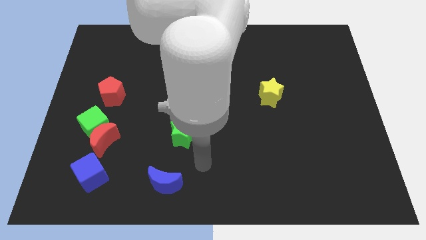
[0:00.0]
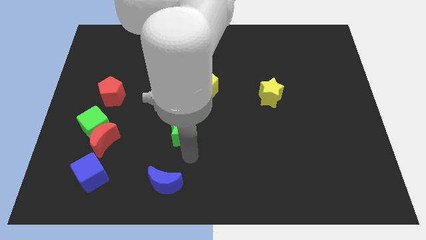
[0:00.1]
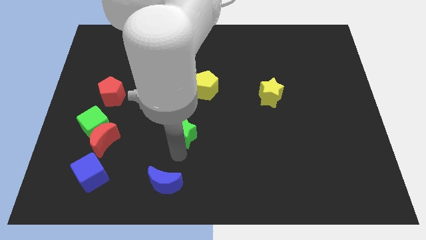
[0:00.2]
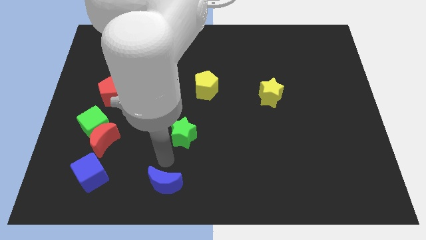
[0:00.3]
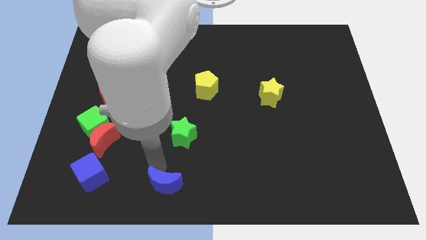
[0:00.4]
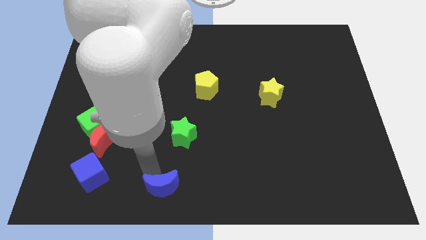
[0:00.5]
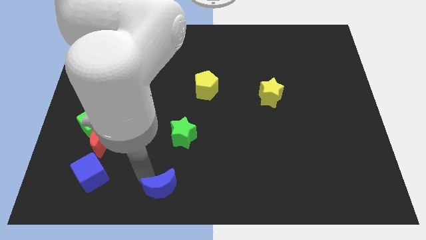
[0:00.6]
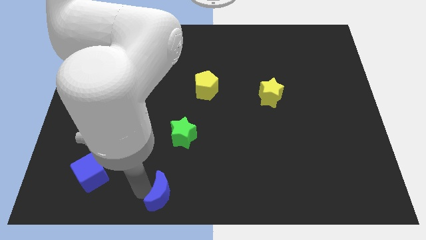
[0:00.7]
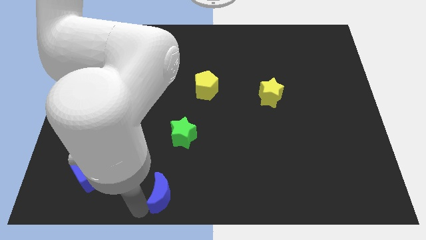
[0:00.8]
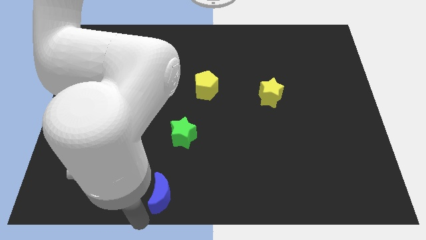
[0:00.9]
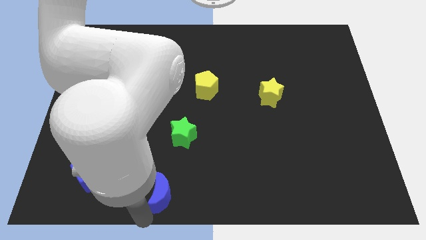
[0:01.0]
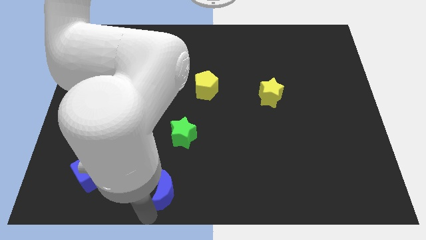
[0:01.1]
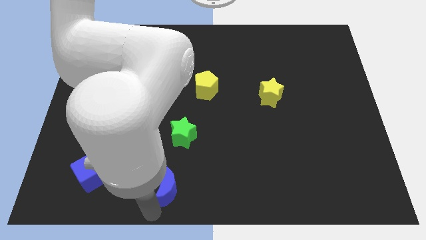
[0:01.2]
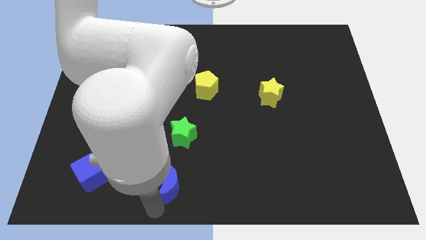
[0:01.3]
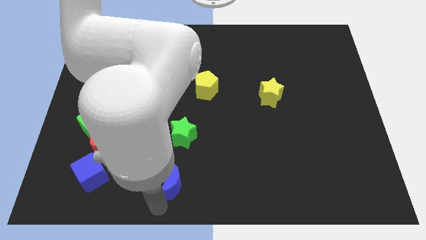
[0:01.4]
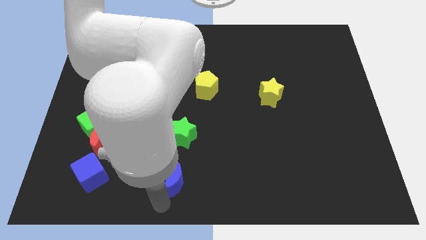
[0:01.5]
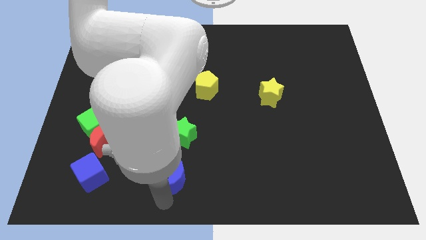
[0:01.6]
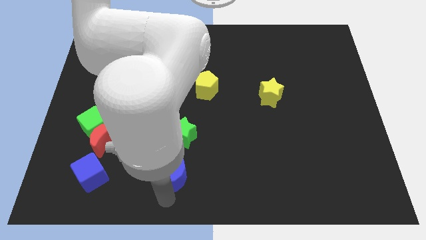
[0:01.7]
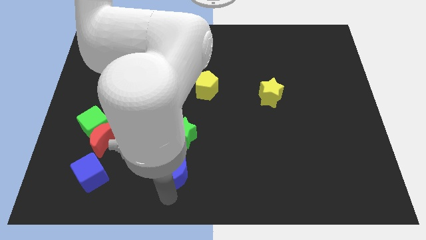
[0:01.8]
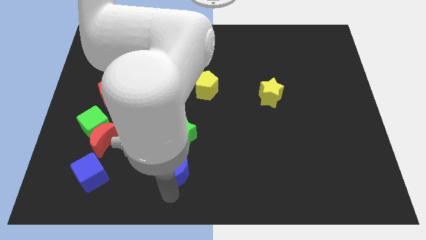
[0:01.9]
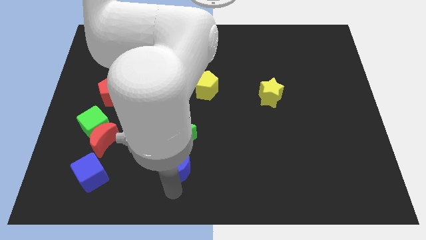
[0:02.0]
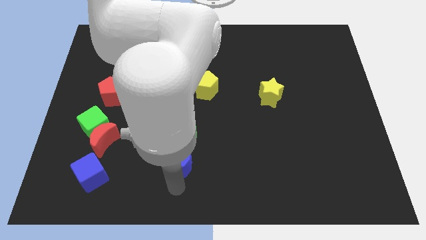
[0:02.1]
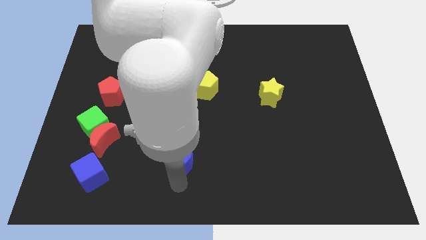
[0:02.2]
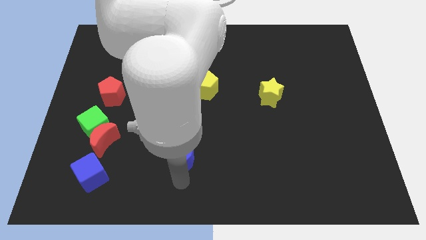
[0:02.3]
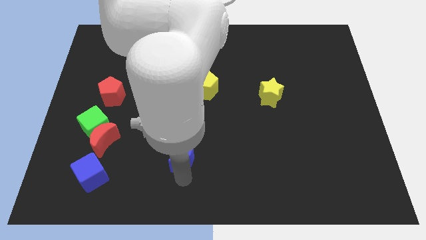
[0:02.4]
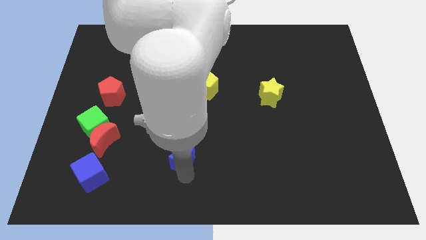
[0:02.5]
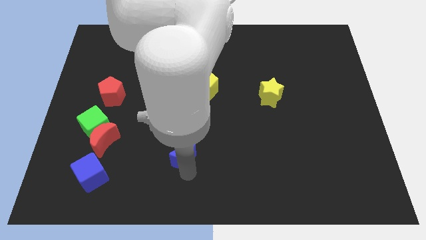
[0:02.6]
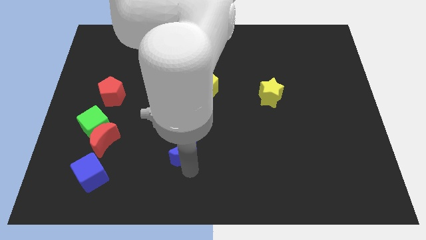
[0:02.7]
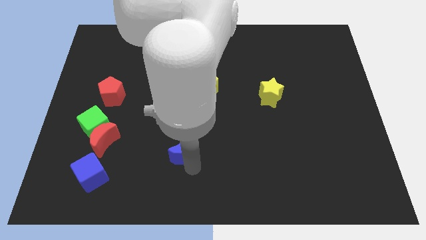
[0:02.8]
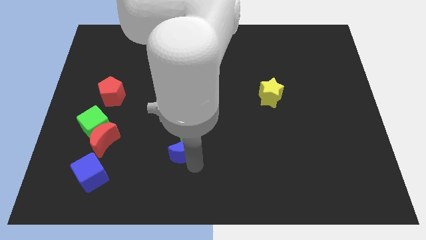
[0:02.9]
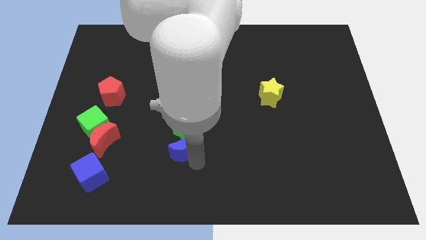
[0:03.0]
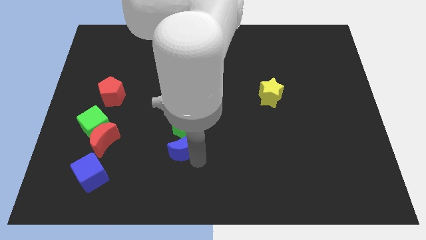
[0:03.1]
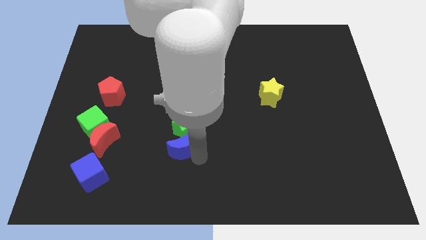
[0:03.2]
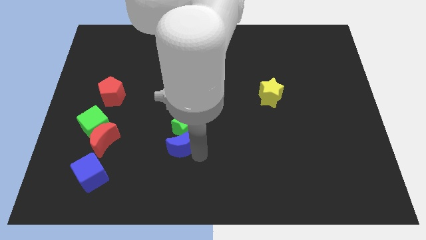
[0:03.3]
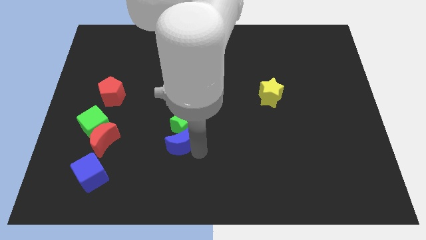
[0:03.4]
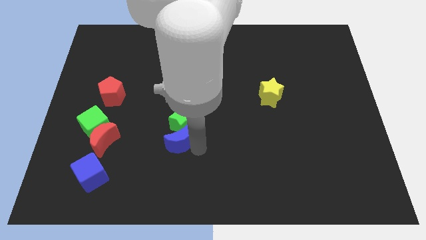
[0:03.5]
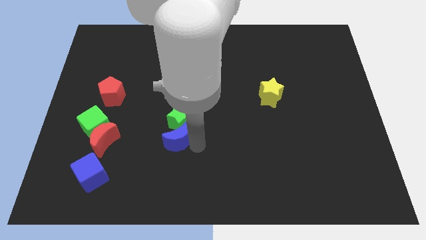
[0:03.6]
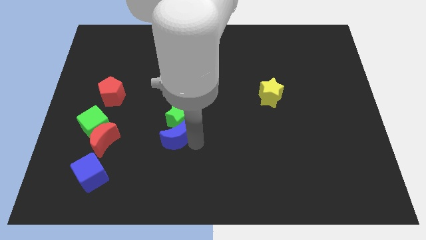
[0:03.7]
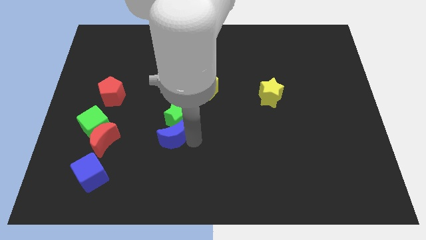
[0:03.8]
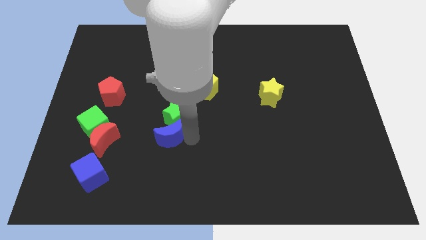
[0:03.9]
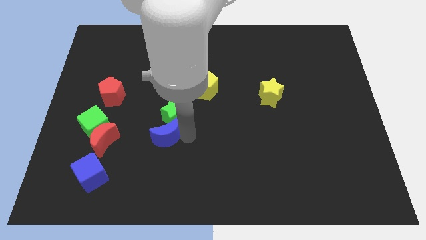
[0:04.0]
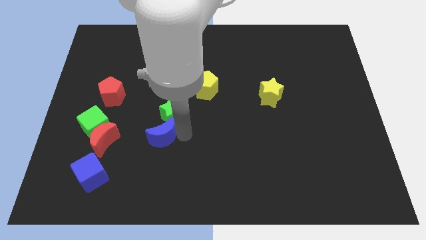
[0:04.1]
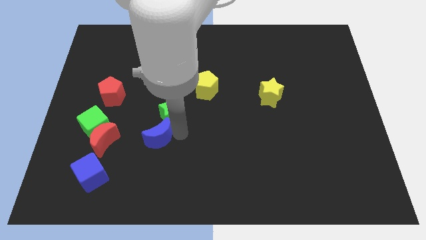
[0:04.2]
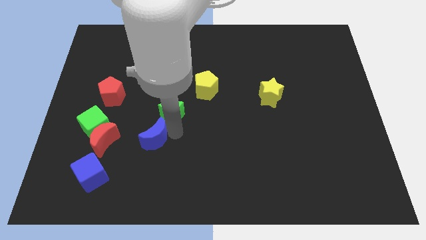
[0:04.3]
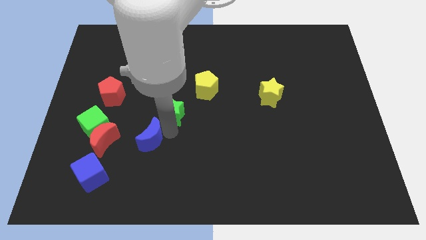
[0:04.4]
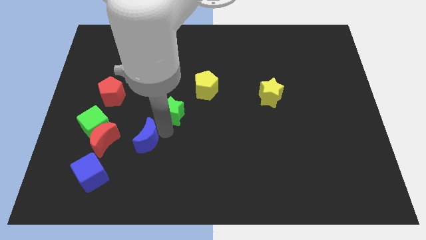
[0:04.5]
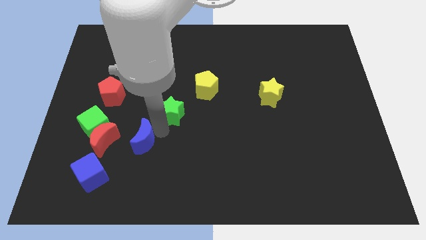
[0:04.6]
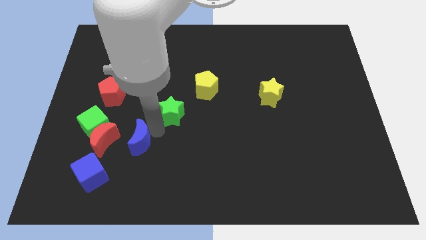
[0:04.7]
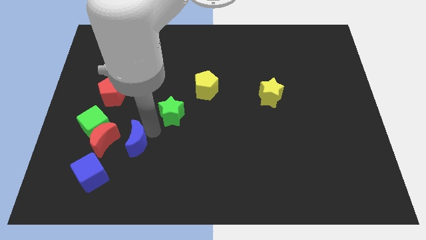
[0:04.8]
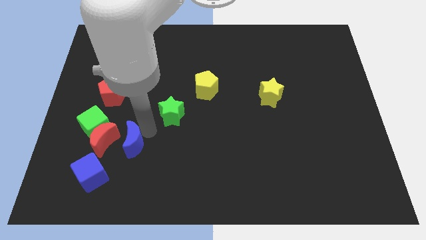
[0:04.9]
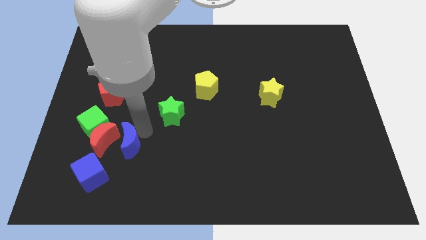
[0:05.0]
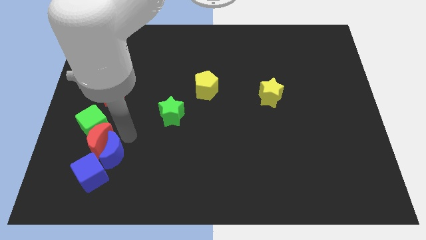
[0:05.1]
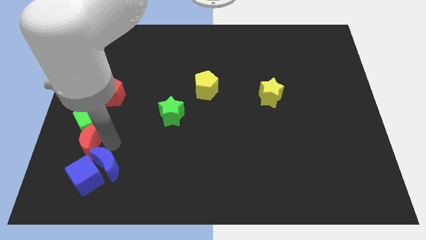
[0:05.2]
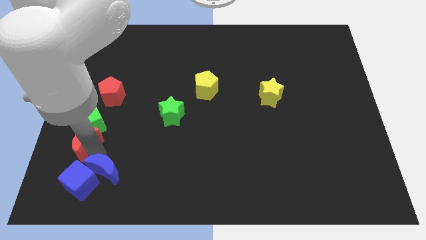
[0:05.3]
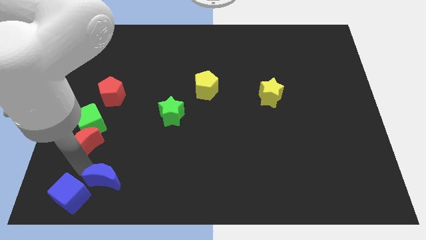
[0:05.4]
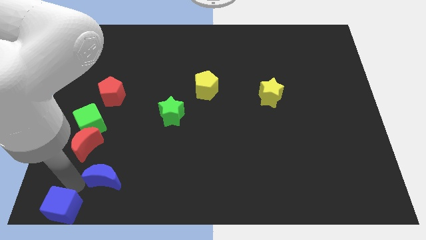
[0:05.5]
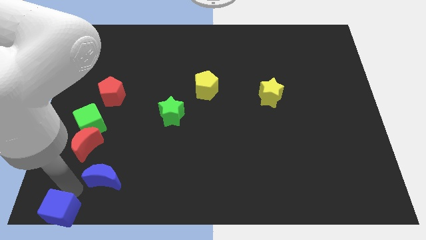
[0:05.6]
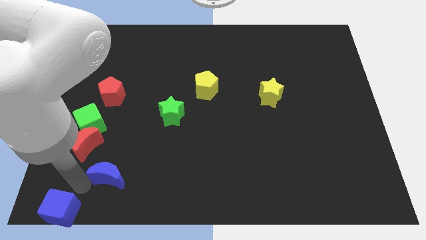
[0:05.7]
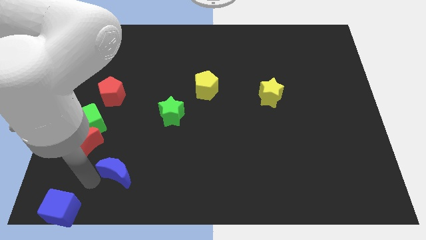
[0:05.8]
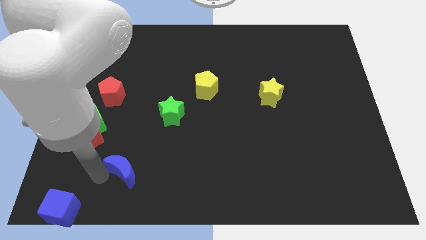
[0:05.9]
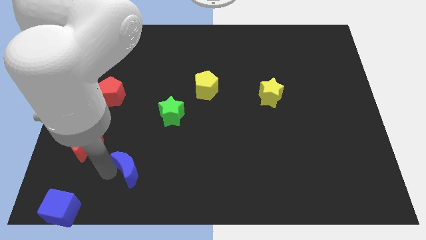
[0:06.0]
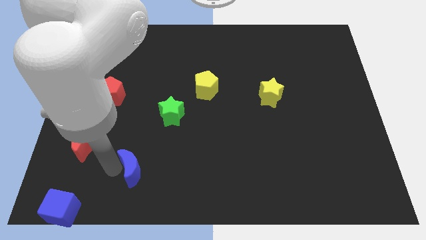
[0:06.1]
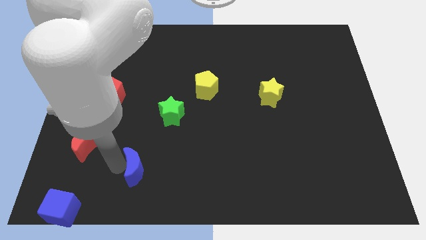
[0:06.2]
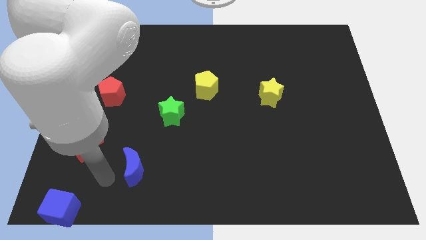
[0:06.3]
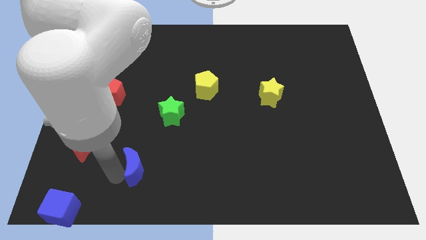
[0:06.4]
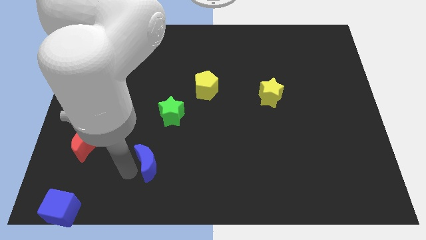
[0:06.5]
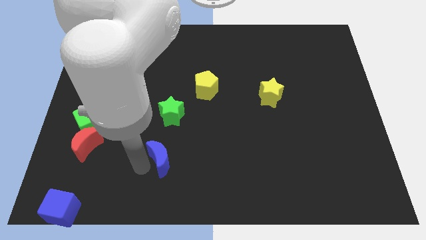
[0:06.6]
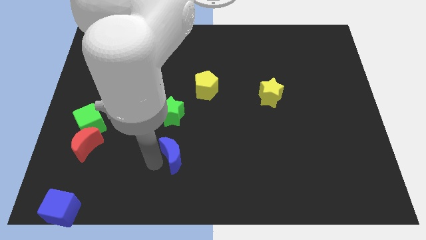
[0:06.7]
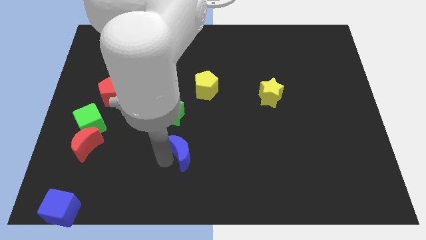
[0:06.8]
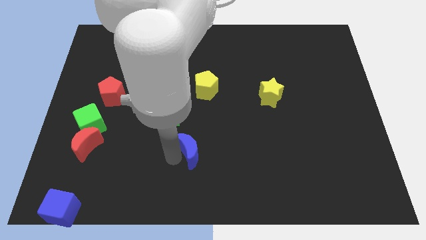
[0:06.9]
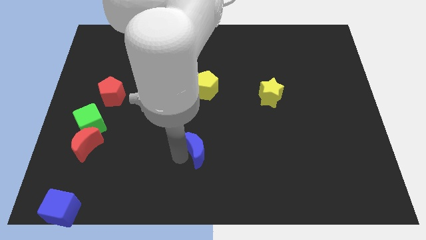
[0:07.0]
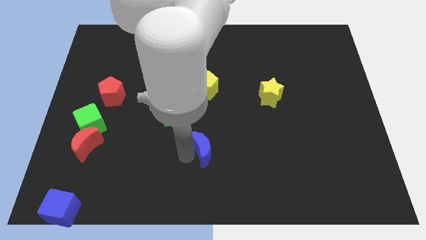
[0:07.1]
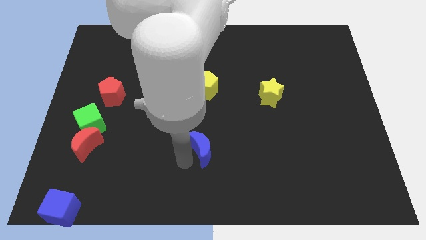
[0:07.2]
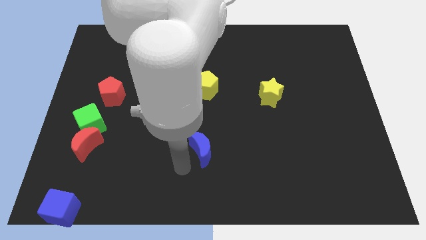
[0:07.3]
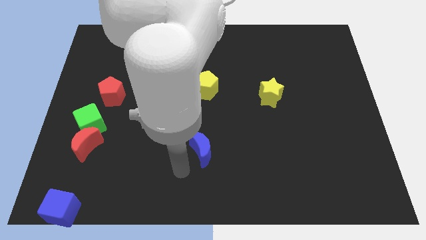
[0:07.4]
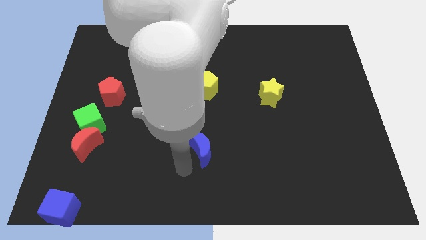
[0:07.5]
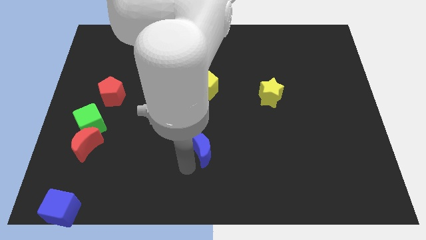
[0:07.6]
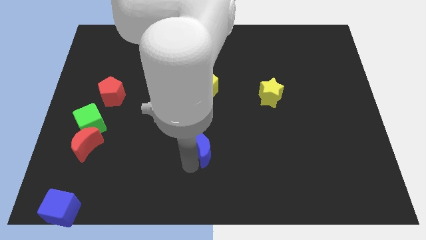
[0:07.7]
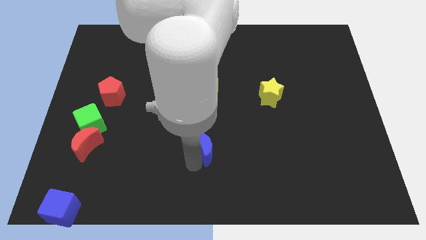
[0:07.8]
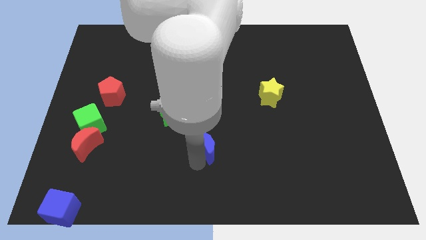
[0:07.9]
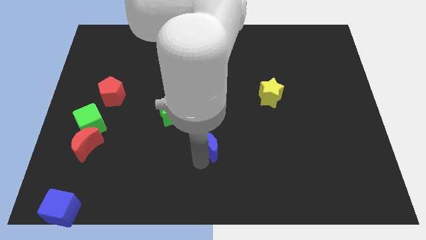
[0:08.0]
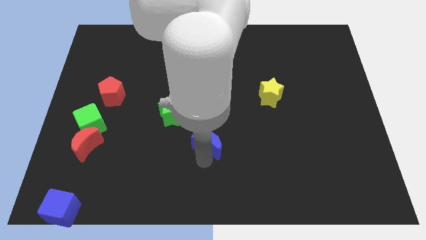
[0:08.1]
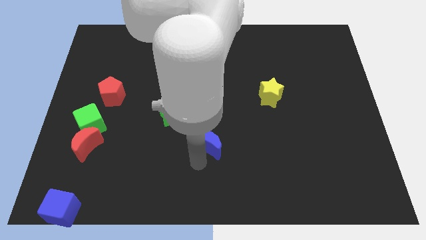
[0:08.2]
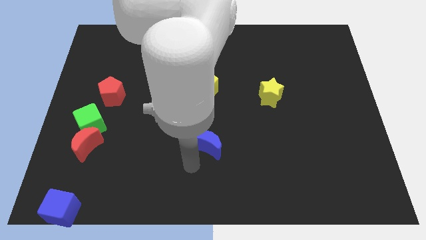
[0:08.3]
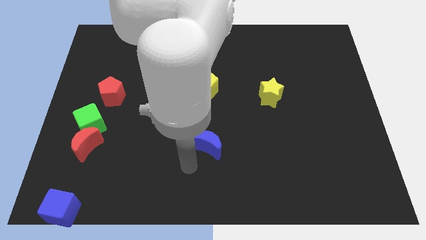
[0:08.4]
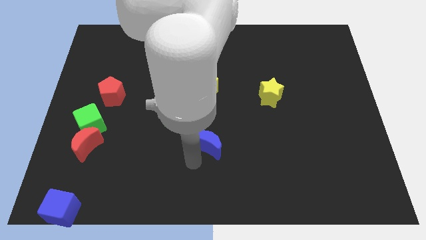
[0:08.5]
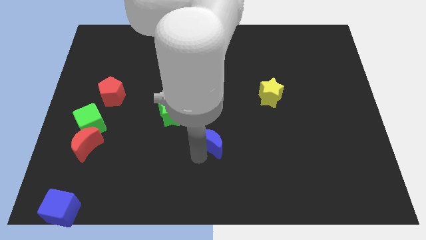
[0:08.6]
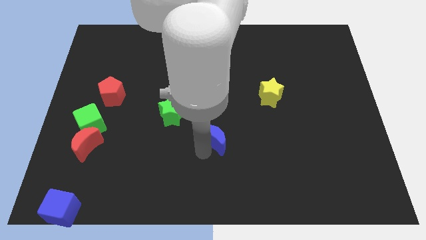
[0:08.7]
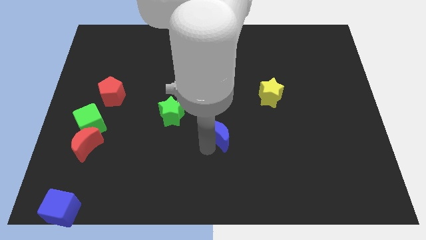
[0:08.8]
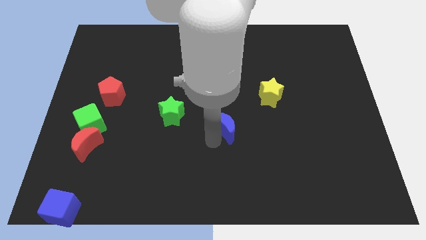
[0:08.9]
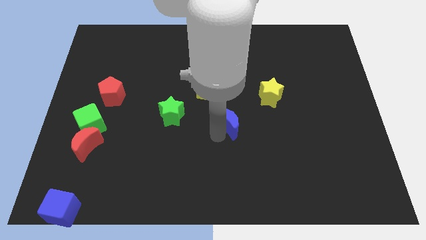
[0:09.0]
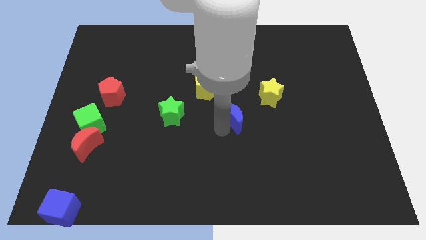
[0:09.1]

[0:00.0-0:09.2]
slide the blue moon diagonally down and to the left of the yellow star
